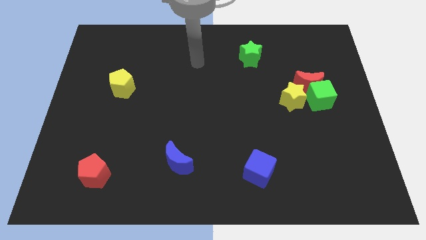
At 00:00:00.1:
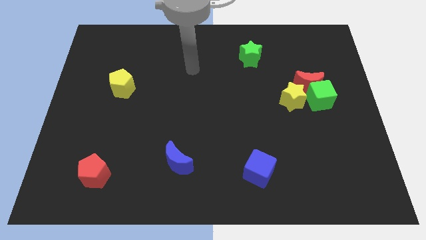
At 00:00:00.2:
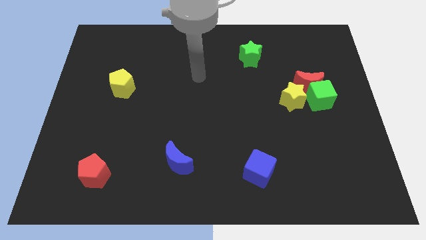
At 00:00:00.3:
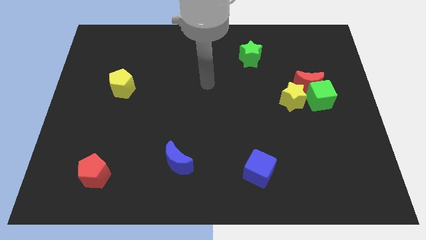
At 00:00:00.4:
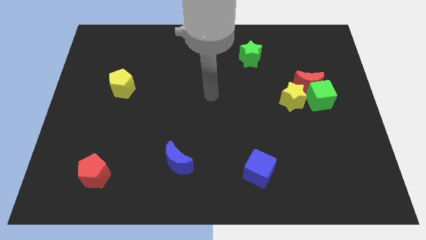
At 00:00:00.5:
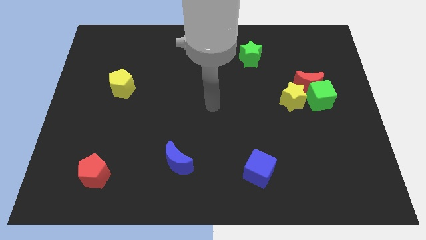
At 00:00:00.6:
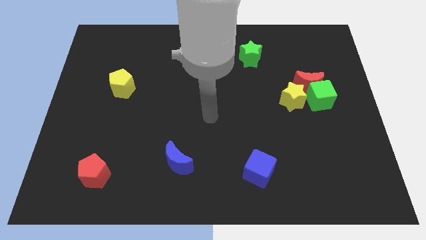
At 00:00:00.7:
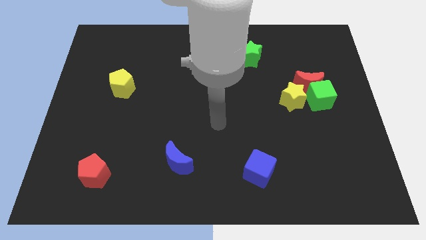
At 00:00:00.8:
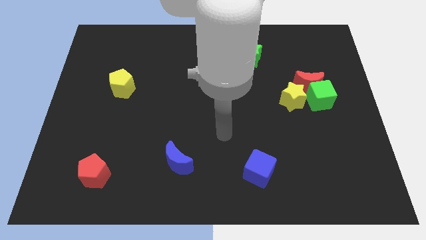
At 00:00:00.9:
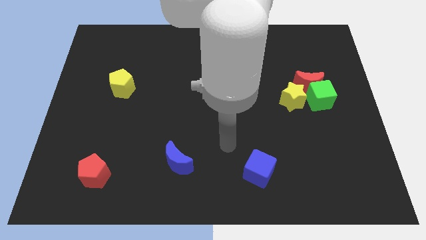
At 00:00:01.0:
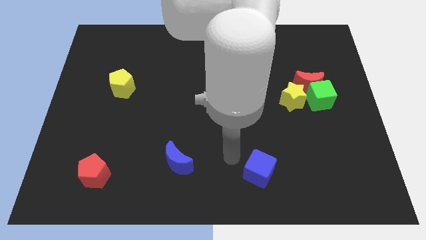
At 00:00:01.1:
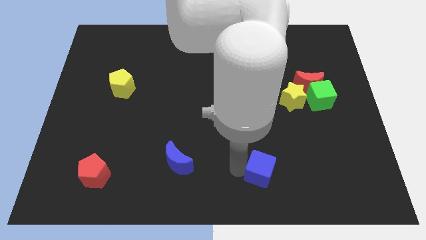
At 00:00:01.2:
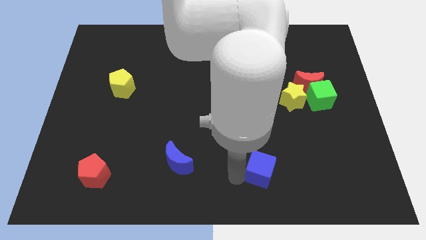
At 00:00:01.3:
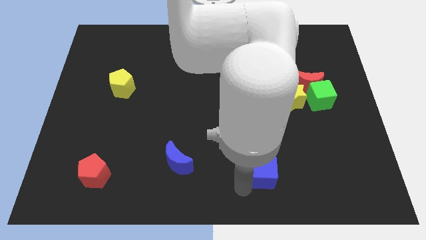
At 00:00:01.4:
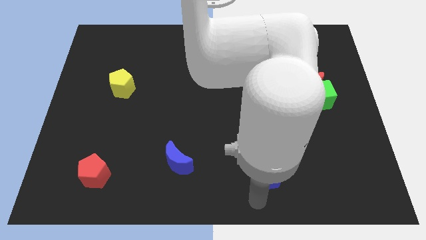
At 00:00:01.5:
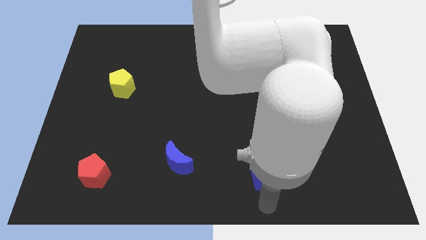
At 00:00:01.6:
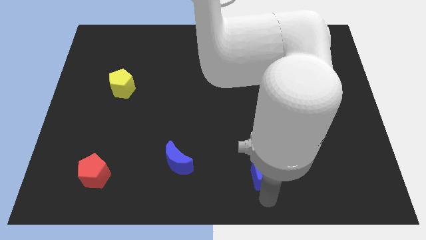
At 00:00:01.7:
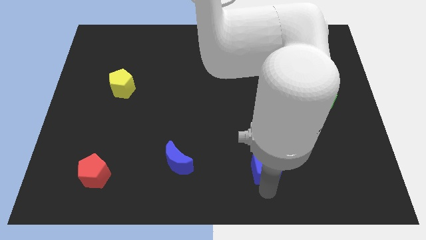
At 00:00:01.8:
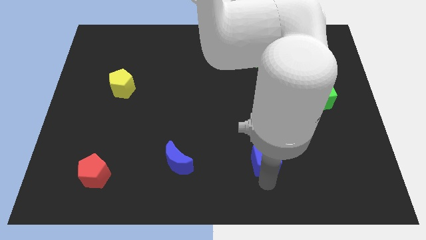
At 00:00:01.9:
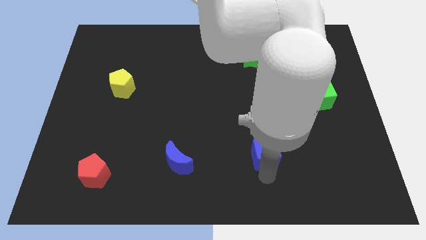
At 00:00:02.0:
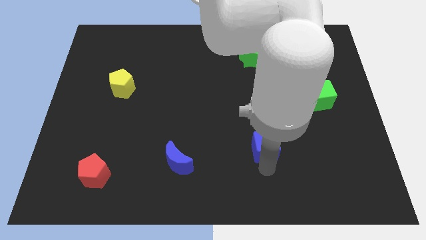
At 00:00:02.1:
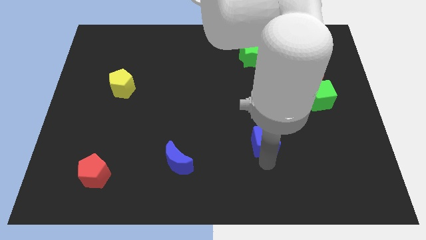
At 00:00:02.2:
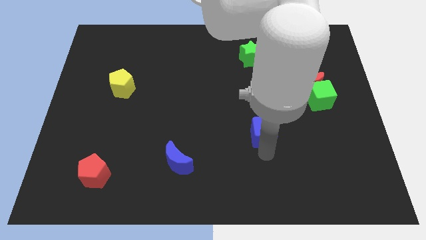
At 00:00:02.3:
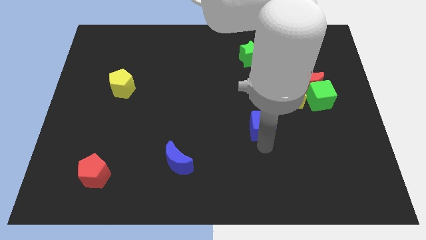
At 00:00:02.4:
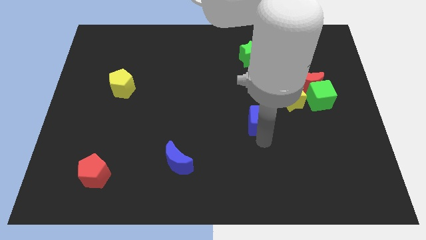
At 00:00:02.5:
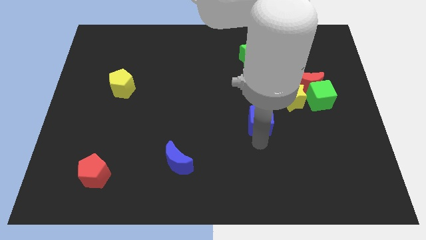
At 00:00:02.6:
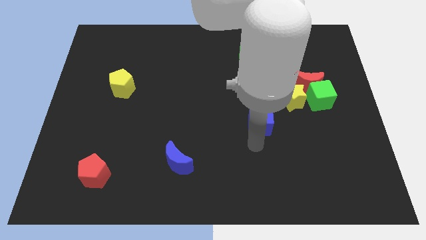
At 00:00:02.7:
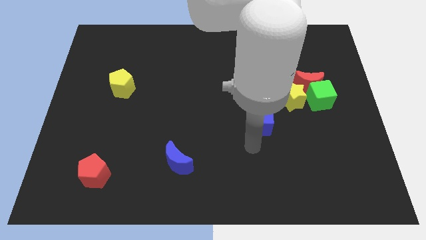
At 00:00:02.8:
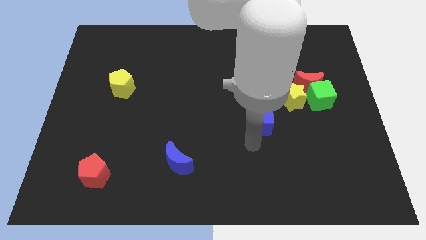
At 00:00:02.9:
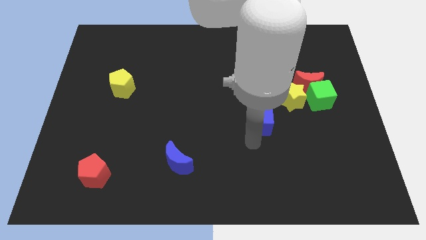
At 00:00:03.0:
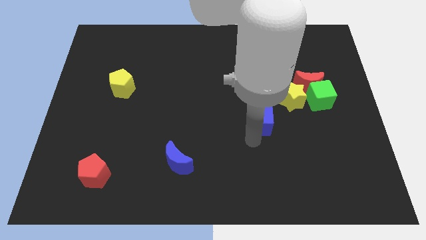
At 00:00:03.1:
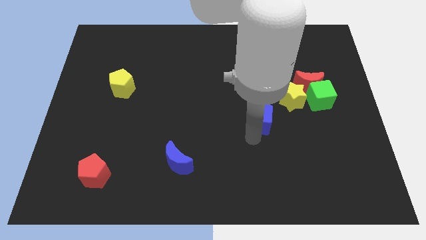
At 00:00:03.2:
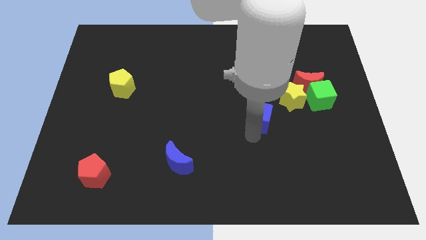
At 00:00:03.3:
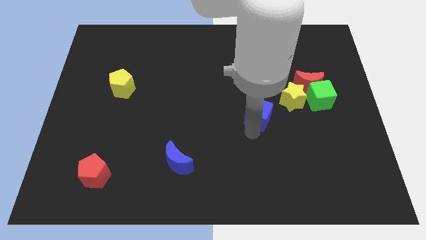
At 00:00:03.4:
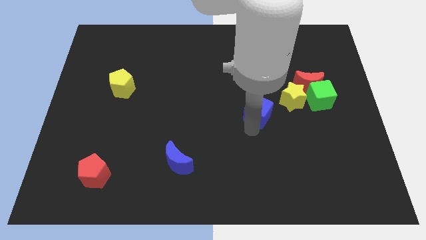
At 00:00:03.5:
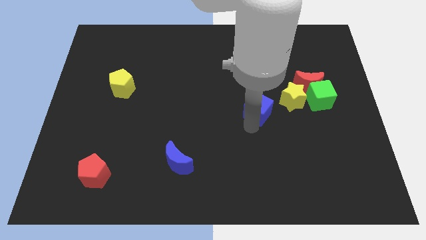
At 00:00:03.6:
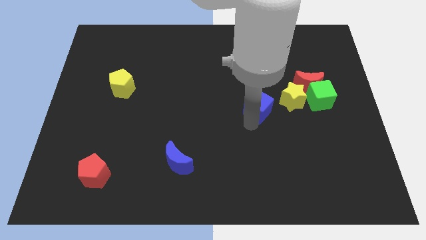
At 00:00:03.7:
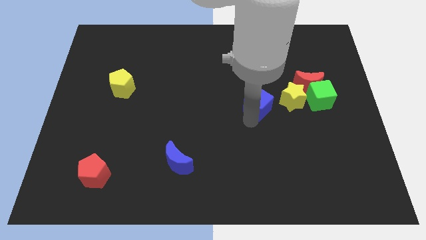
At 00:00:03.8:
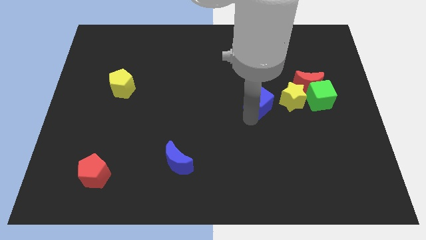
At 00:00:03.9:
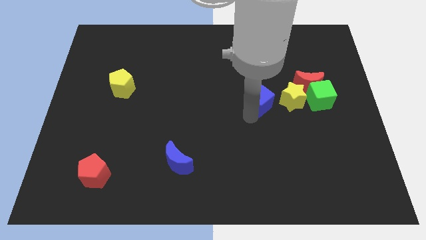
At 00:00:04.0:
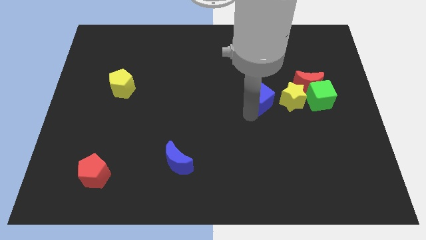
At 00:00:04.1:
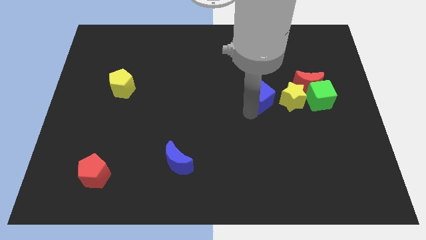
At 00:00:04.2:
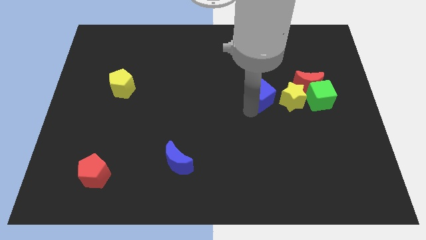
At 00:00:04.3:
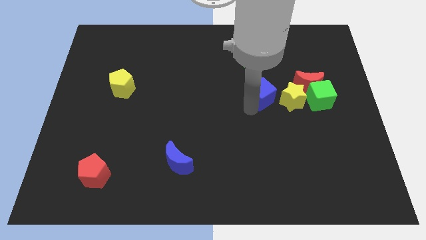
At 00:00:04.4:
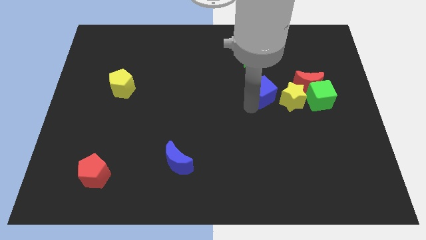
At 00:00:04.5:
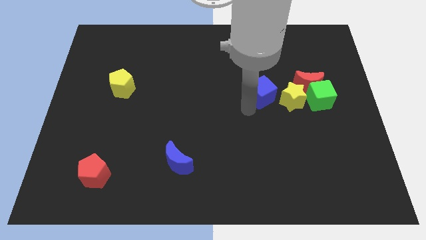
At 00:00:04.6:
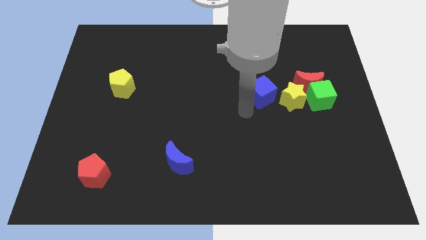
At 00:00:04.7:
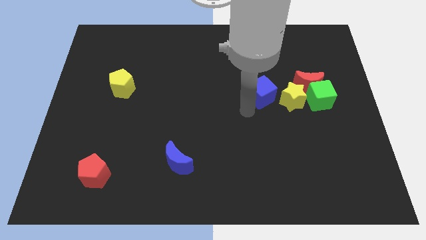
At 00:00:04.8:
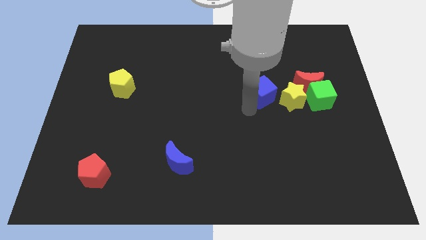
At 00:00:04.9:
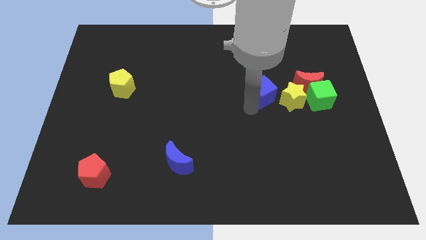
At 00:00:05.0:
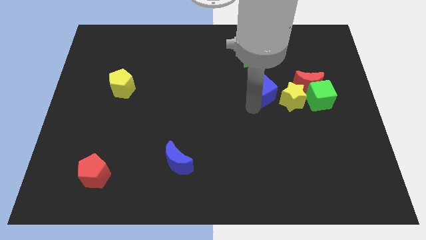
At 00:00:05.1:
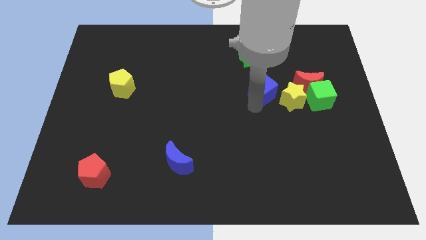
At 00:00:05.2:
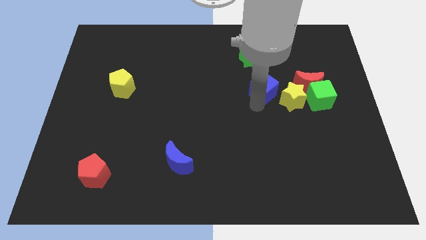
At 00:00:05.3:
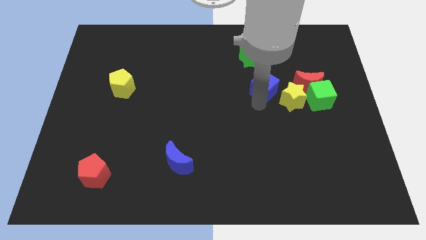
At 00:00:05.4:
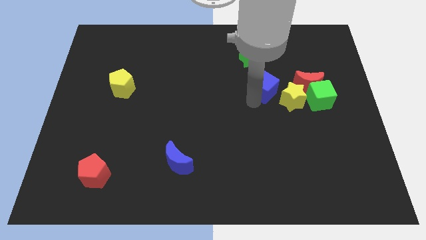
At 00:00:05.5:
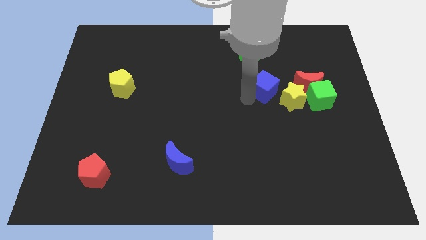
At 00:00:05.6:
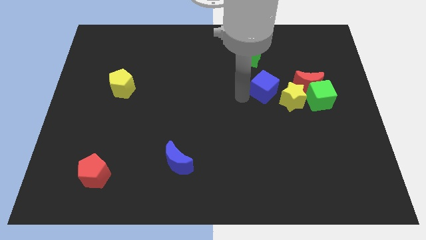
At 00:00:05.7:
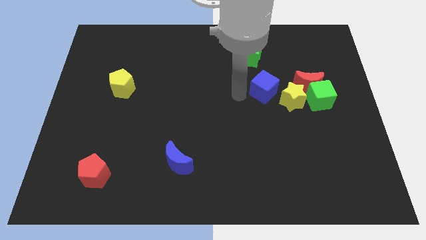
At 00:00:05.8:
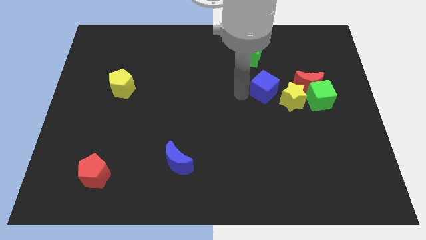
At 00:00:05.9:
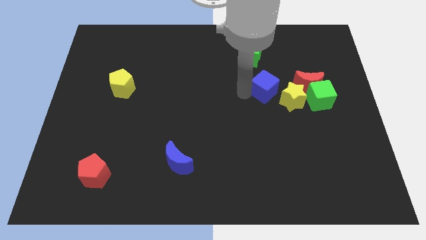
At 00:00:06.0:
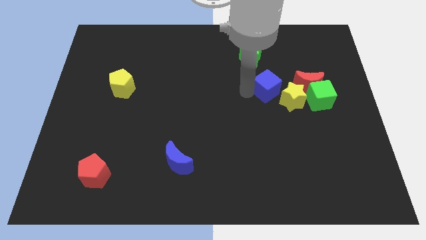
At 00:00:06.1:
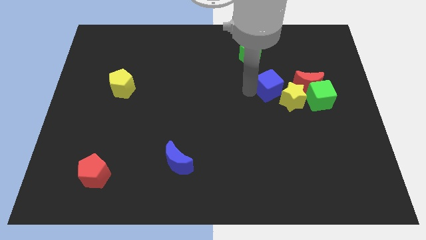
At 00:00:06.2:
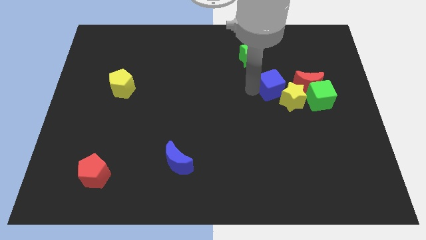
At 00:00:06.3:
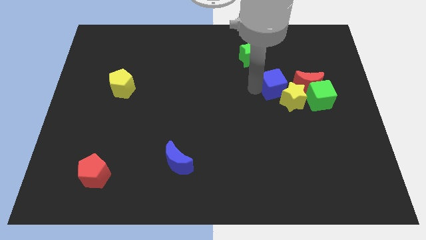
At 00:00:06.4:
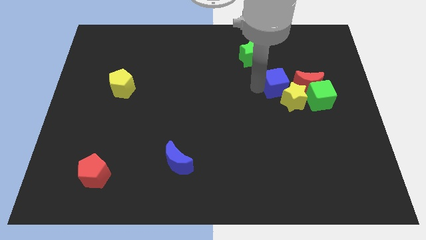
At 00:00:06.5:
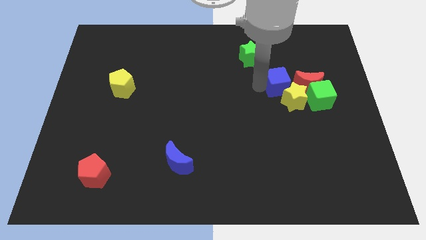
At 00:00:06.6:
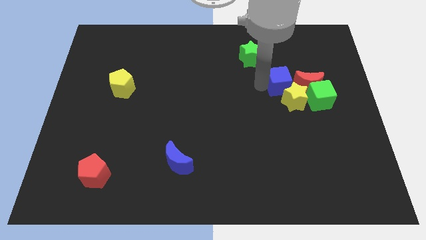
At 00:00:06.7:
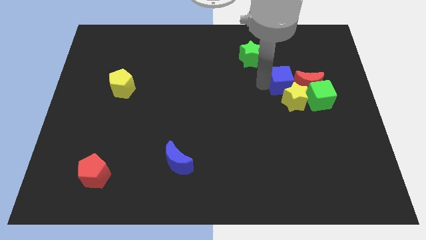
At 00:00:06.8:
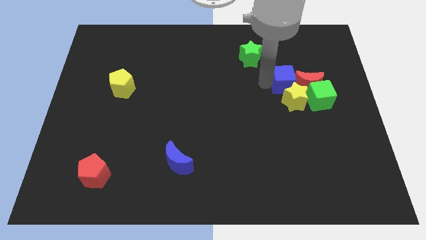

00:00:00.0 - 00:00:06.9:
put the blue cube close to the red moon
